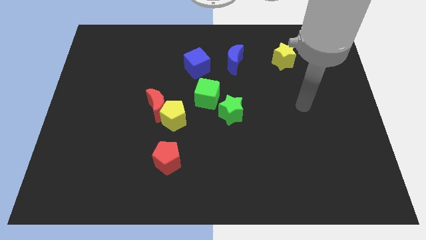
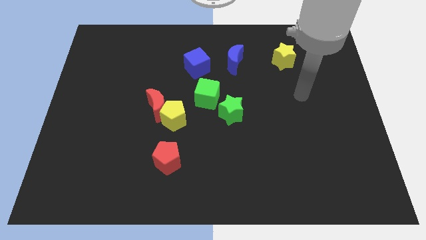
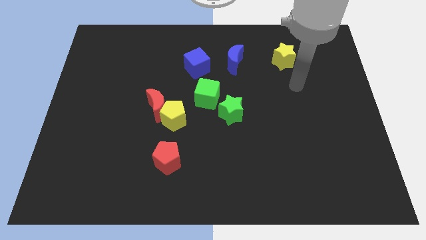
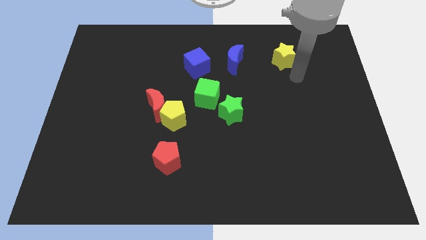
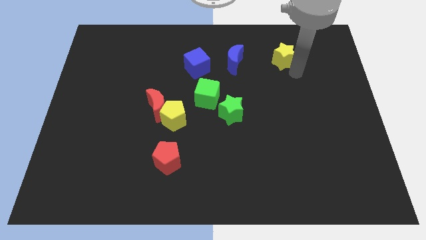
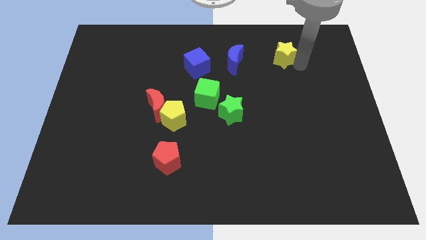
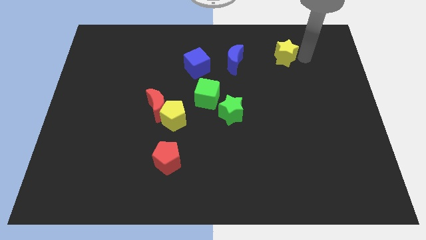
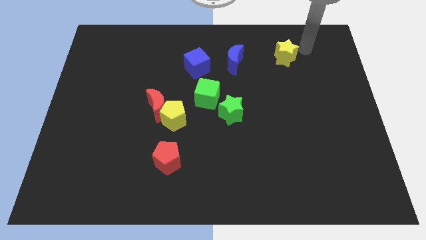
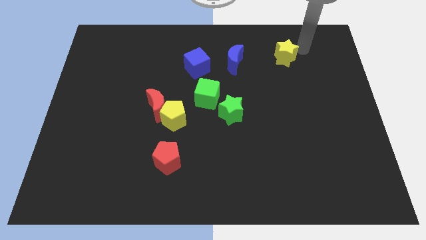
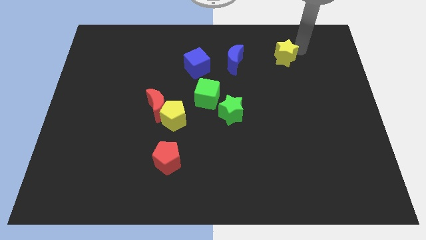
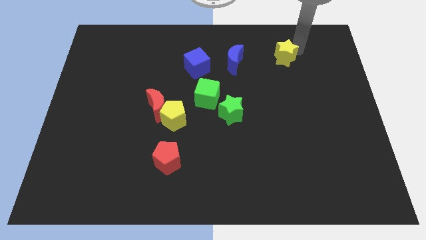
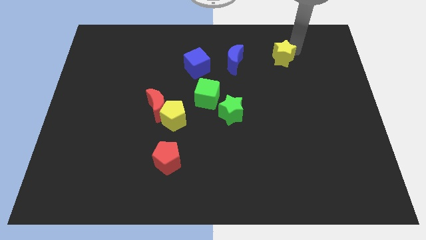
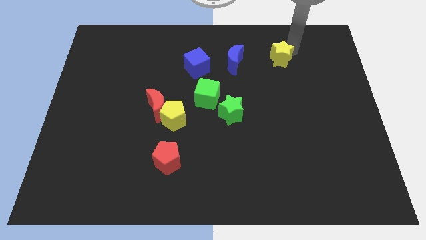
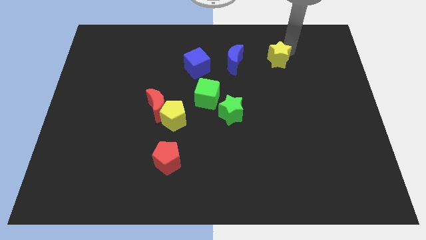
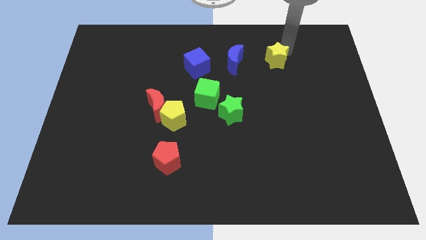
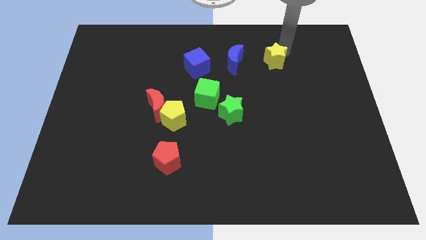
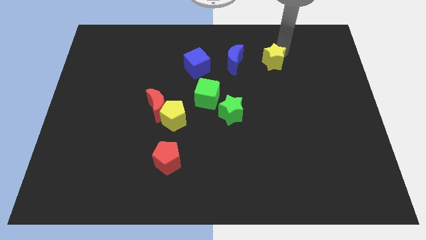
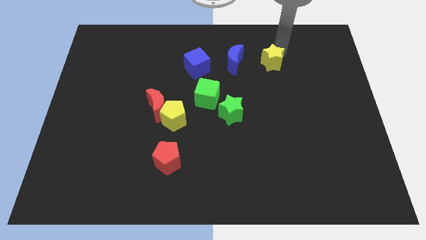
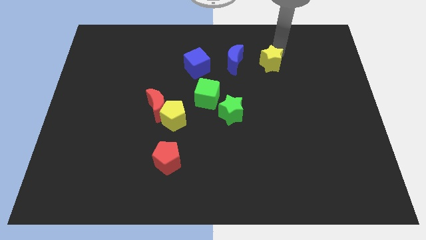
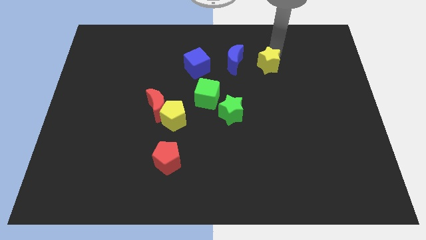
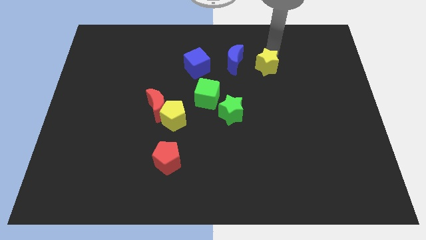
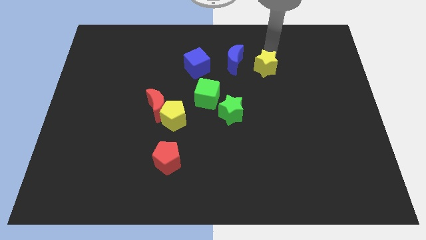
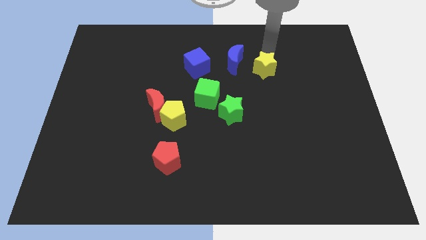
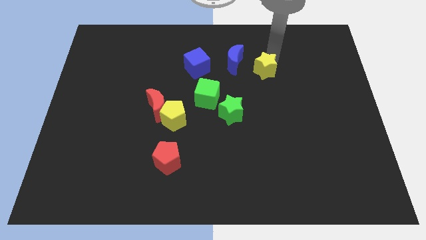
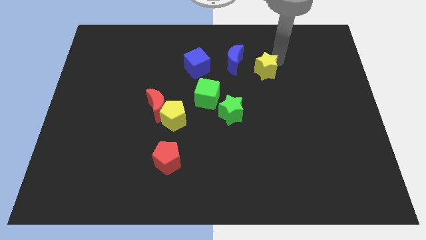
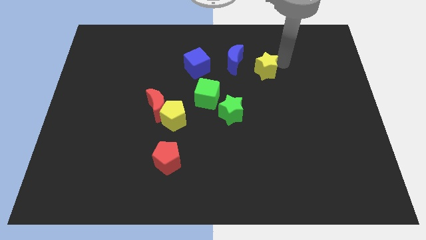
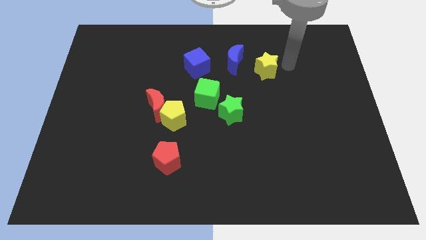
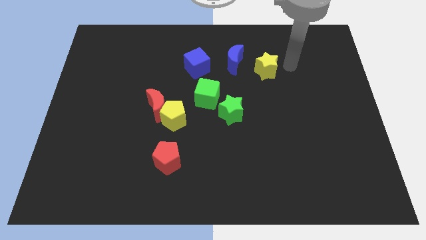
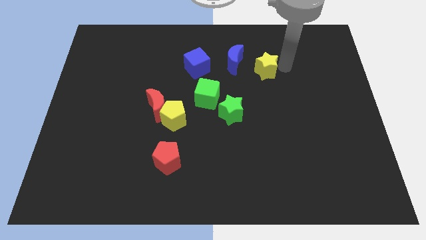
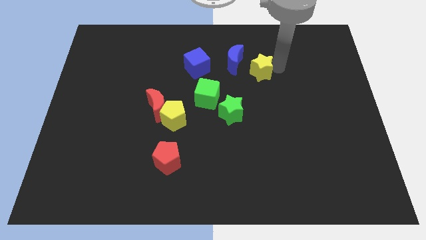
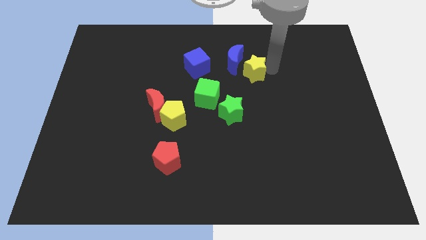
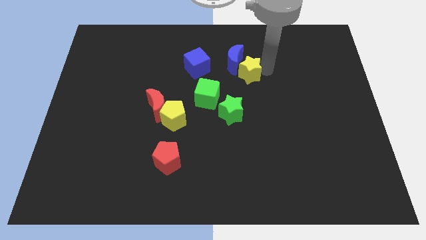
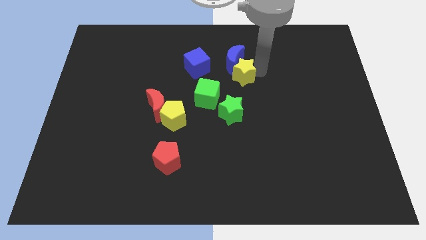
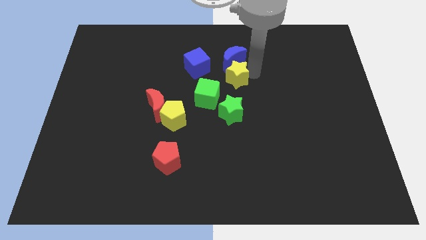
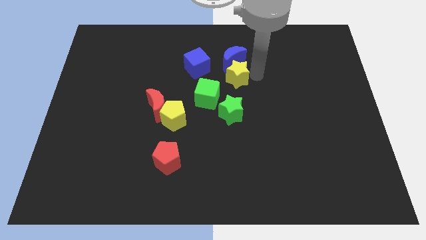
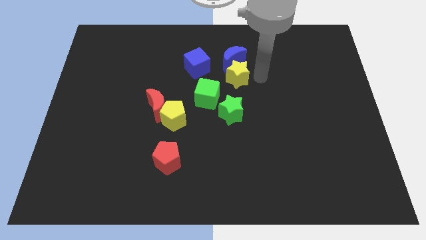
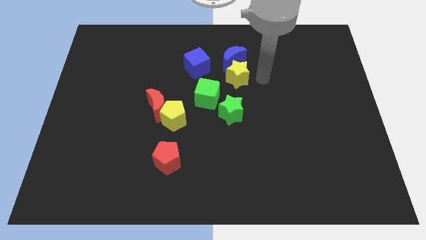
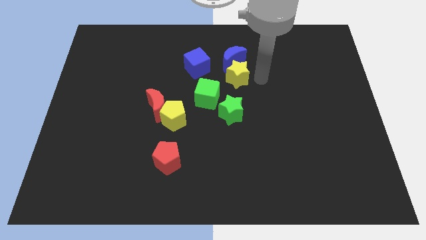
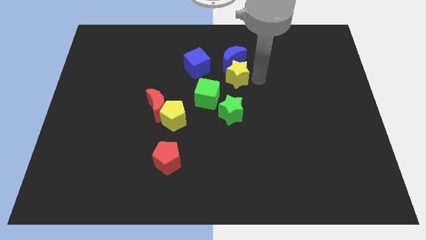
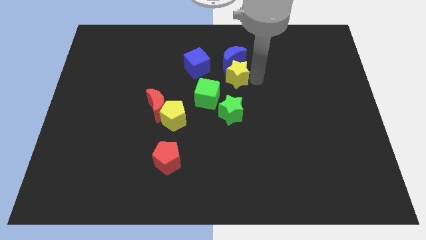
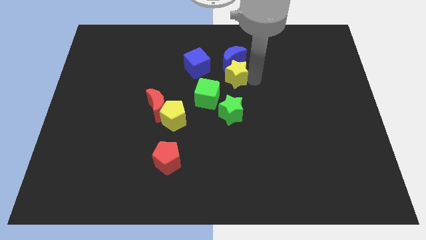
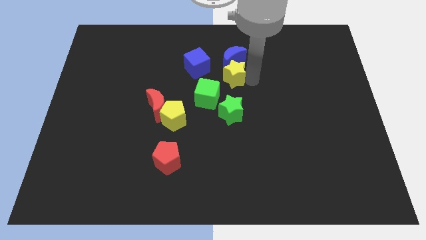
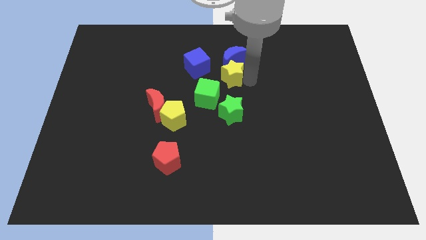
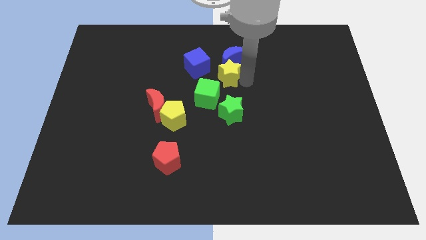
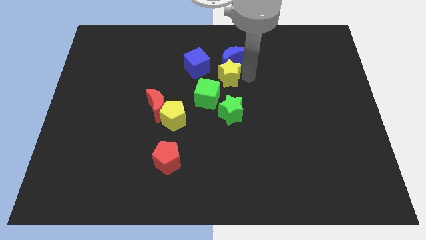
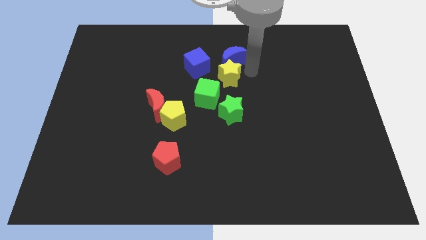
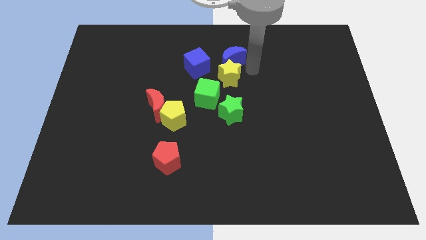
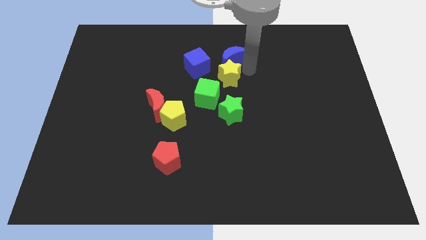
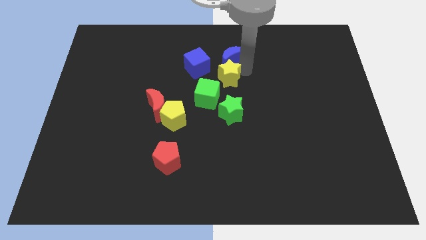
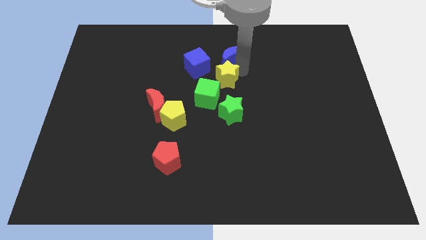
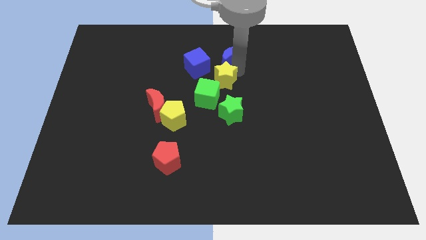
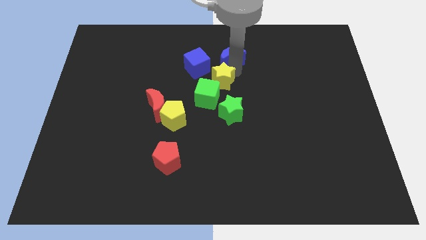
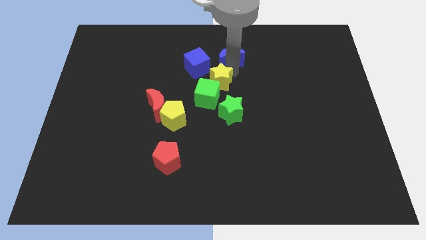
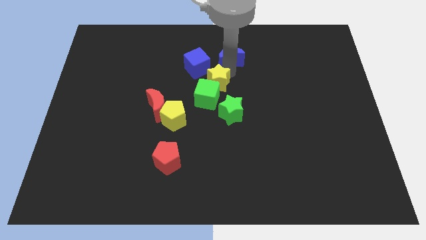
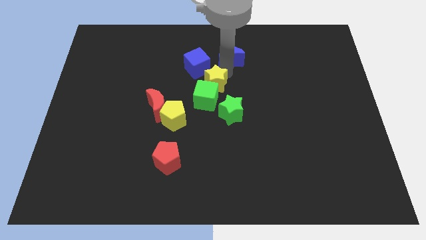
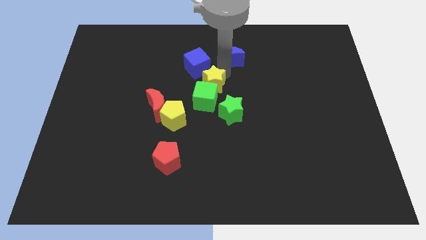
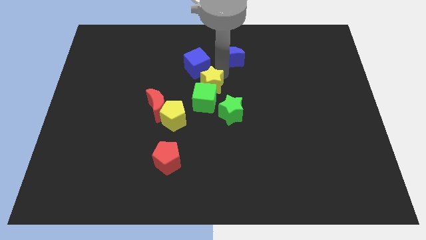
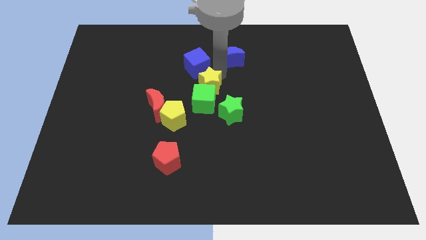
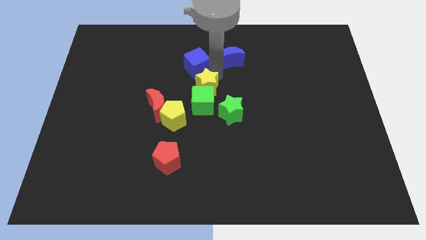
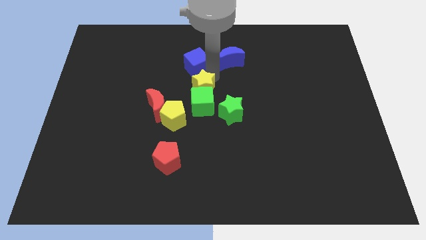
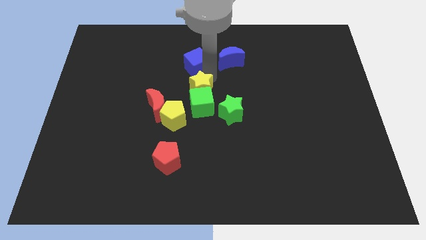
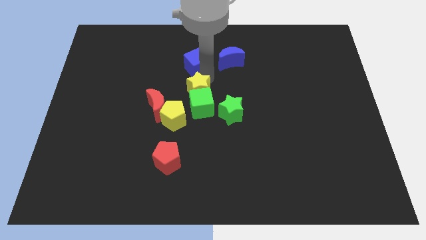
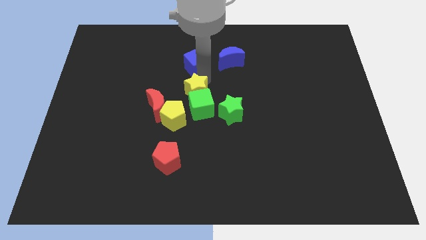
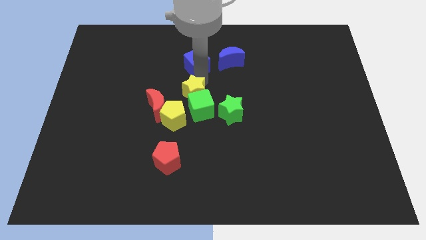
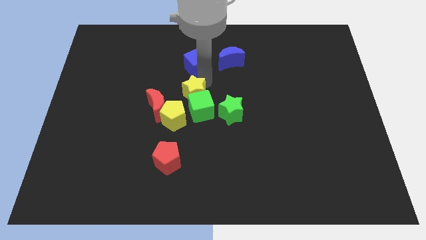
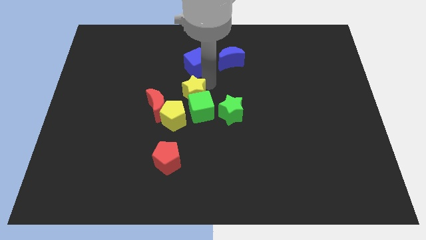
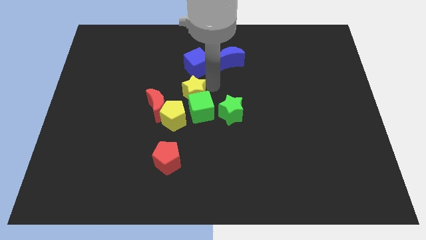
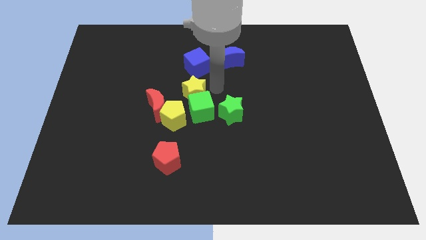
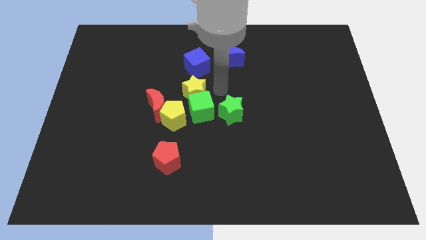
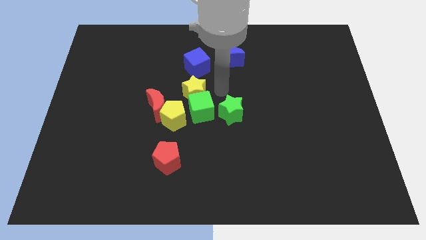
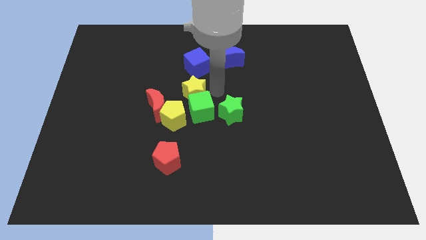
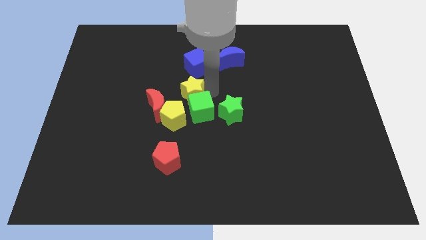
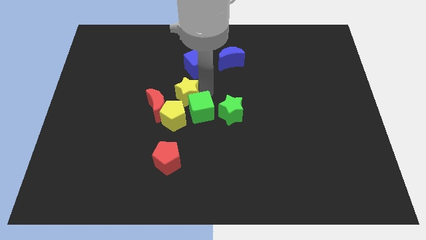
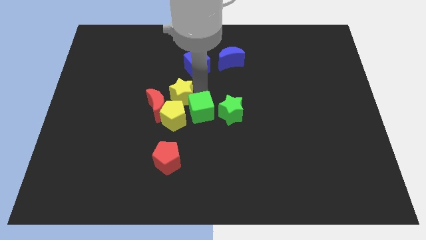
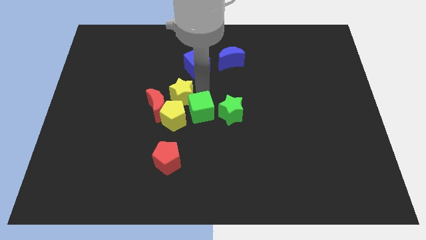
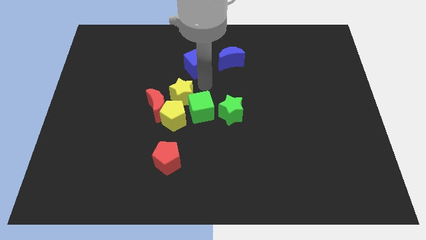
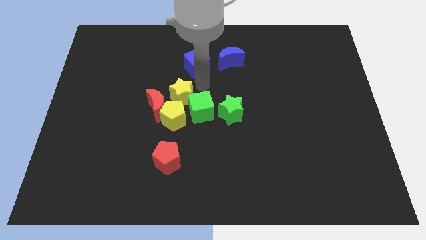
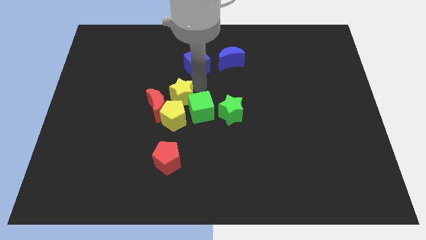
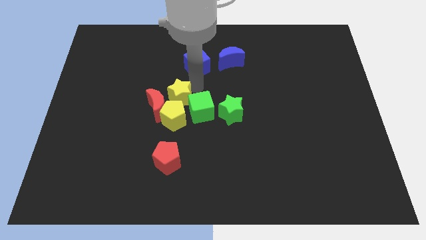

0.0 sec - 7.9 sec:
move the yellow star towards the red moon
